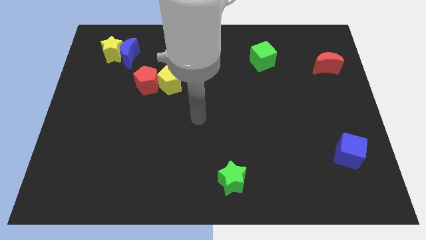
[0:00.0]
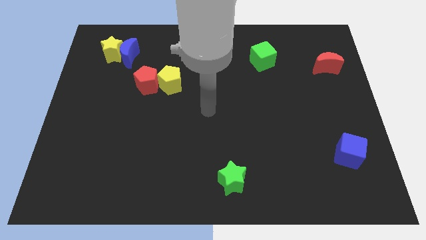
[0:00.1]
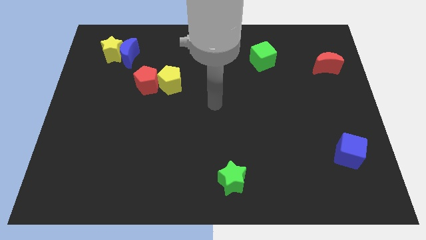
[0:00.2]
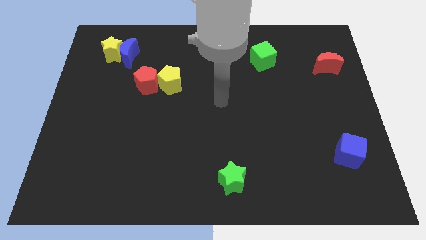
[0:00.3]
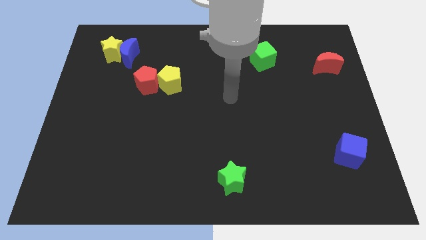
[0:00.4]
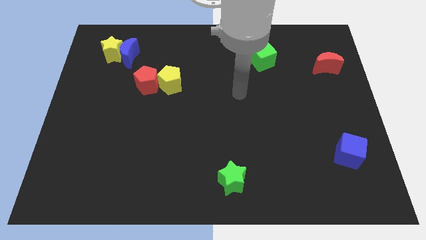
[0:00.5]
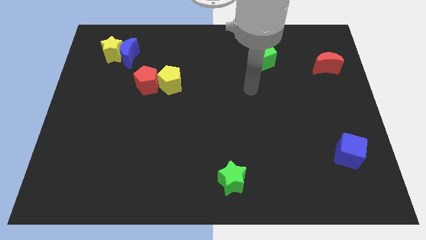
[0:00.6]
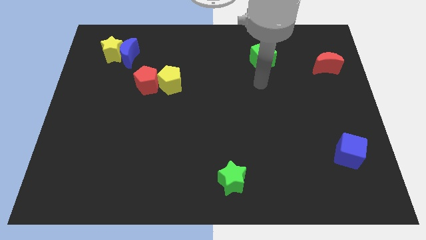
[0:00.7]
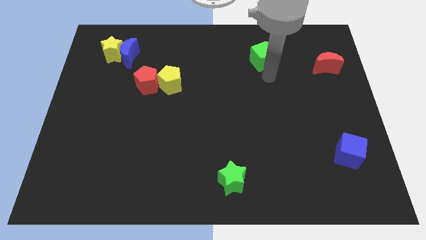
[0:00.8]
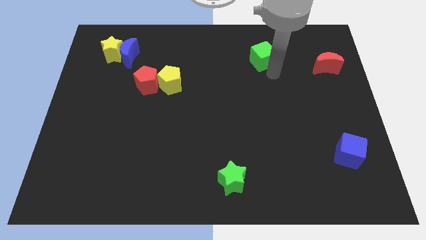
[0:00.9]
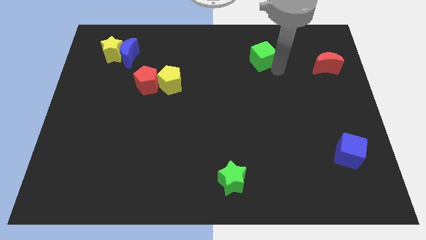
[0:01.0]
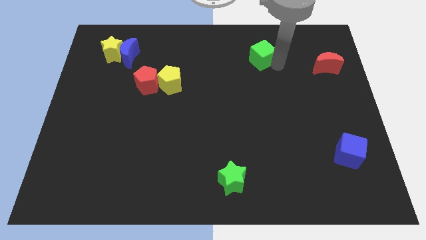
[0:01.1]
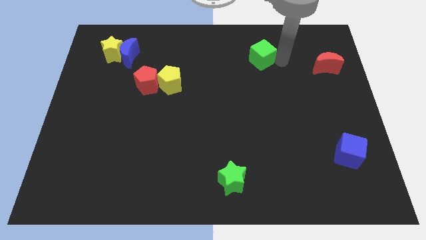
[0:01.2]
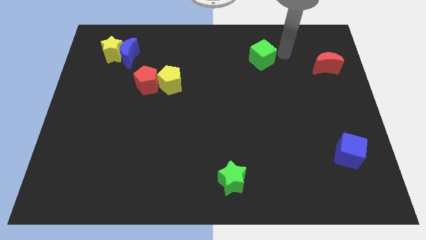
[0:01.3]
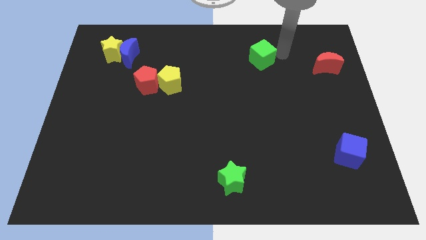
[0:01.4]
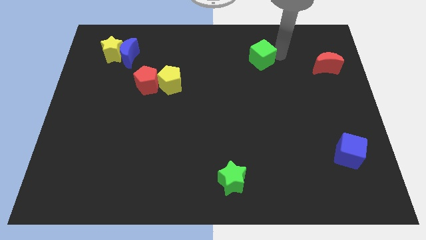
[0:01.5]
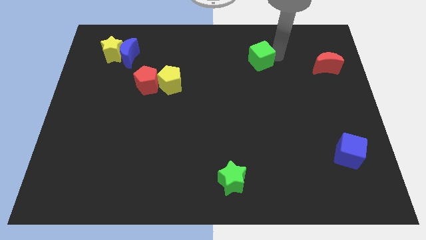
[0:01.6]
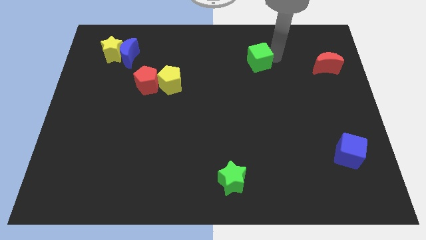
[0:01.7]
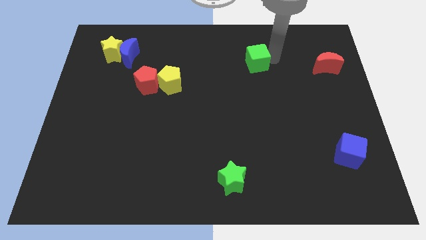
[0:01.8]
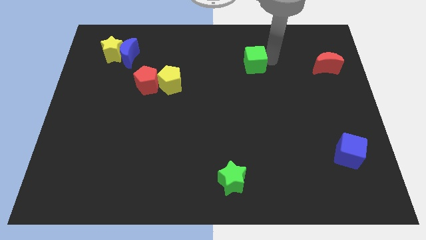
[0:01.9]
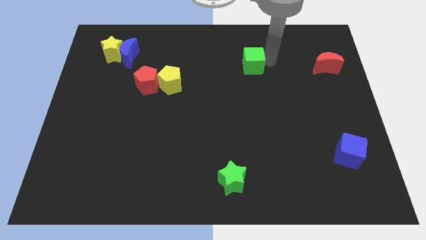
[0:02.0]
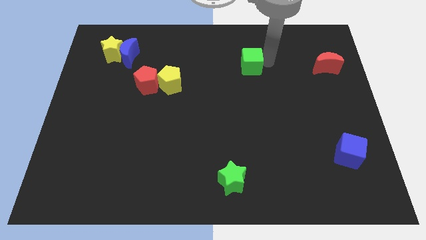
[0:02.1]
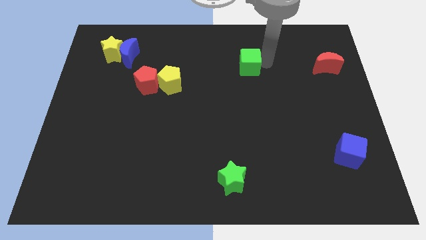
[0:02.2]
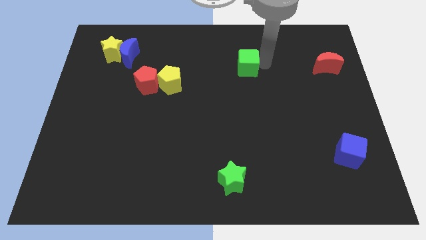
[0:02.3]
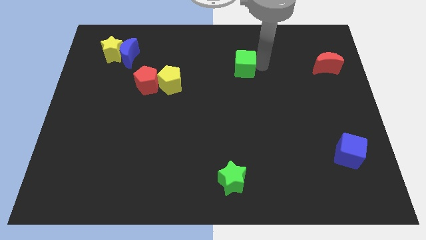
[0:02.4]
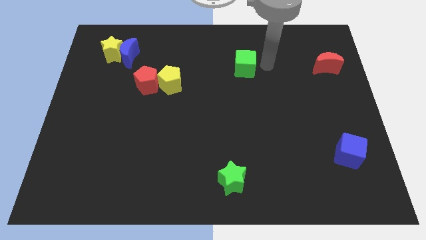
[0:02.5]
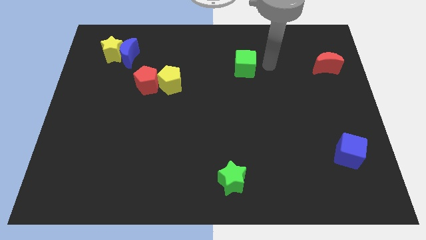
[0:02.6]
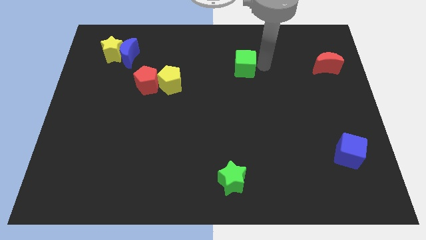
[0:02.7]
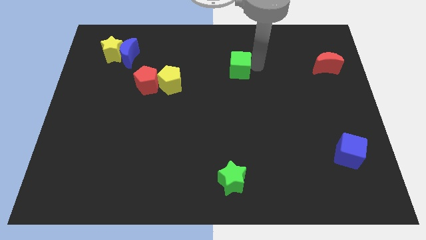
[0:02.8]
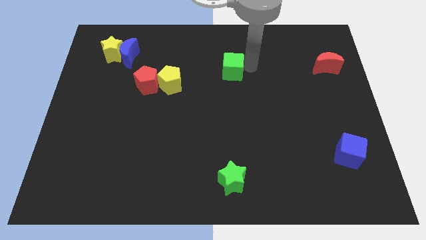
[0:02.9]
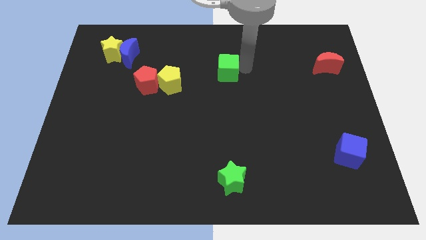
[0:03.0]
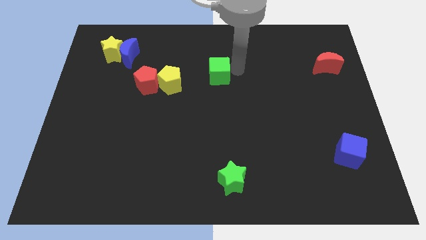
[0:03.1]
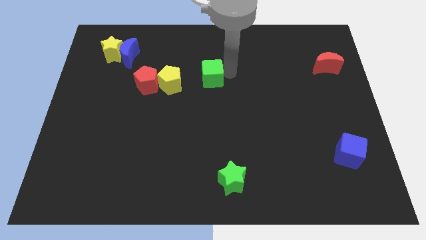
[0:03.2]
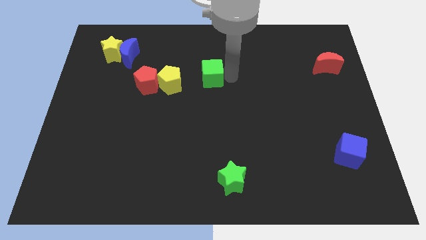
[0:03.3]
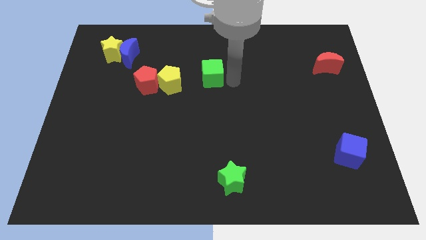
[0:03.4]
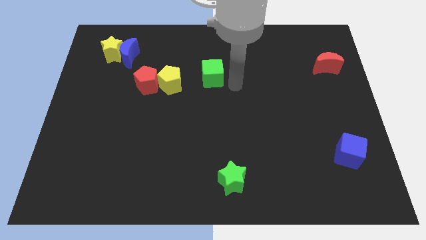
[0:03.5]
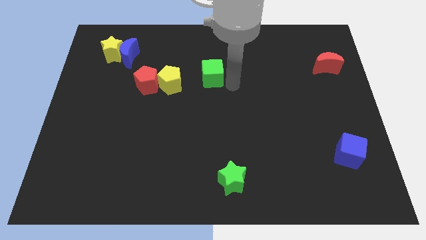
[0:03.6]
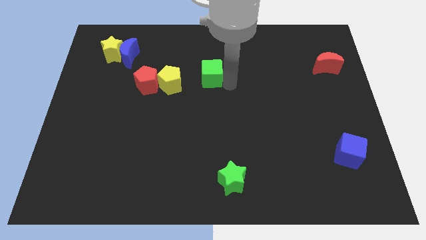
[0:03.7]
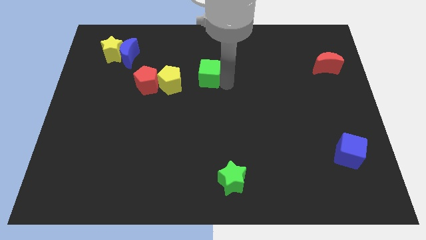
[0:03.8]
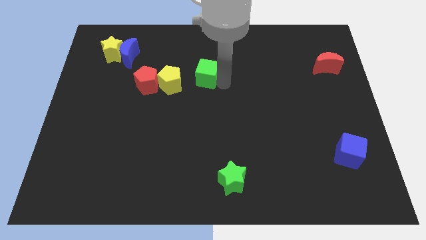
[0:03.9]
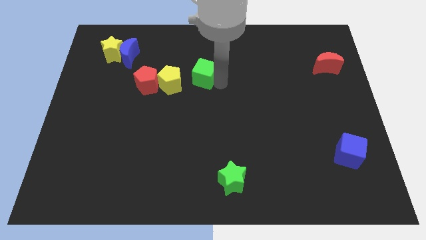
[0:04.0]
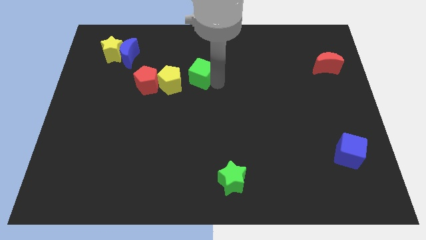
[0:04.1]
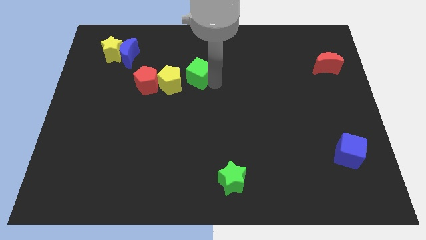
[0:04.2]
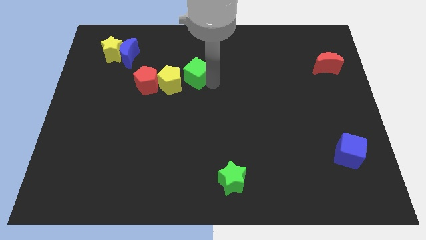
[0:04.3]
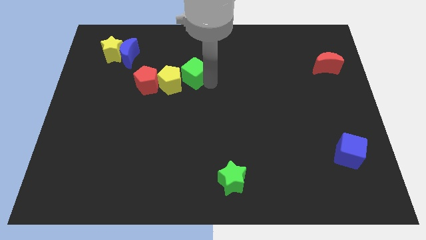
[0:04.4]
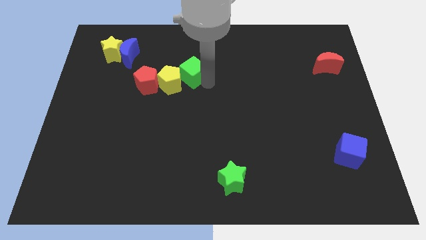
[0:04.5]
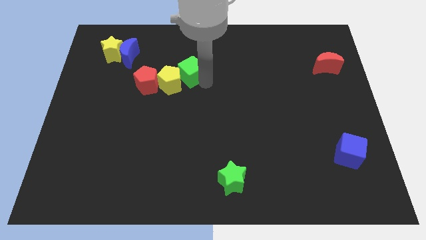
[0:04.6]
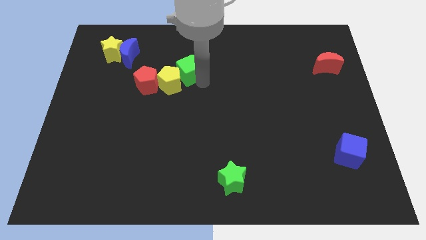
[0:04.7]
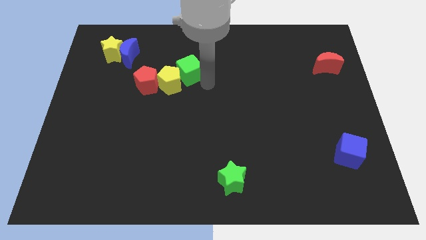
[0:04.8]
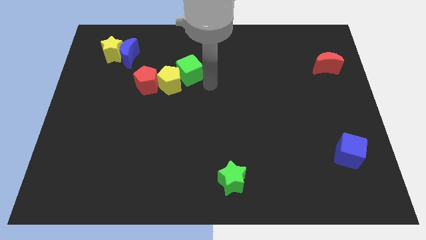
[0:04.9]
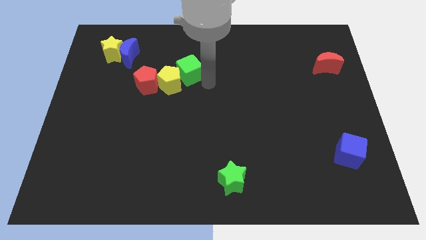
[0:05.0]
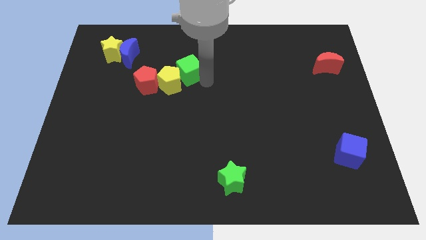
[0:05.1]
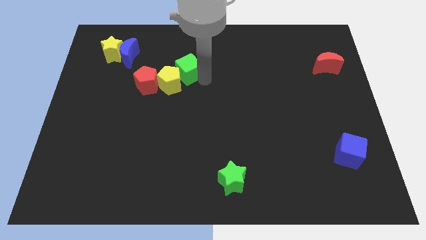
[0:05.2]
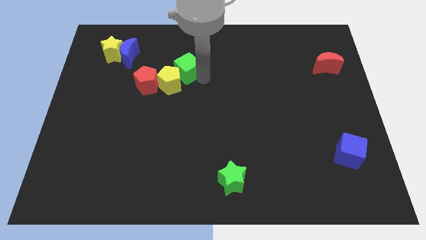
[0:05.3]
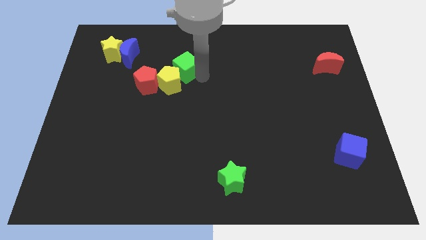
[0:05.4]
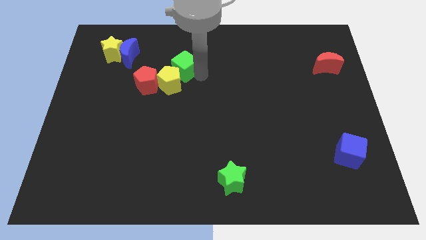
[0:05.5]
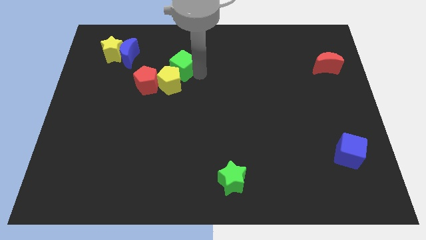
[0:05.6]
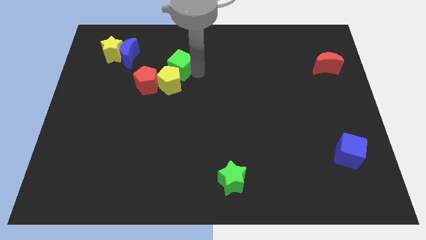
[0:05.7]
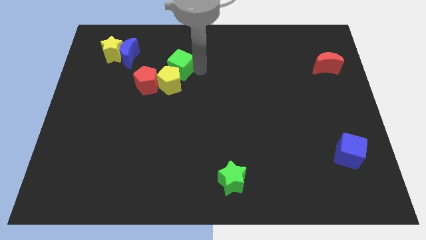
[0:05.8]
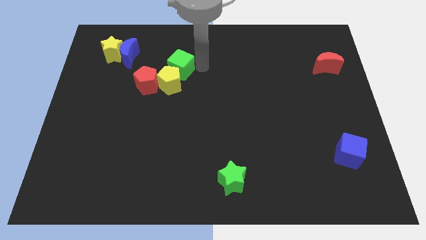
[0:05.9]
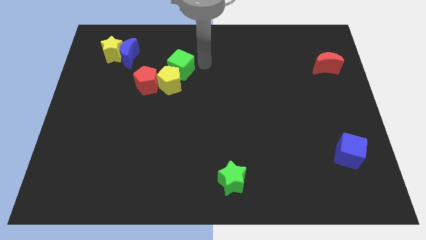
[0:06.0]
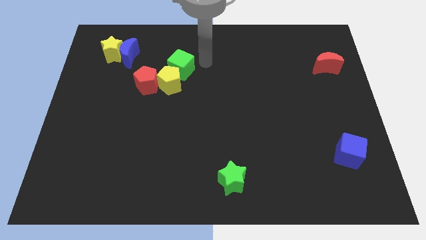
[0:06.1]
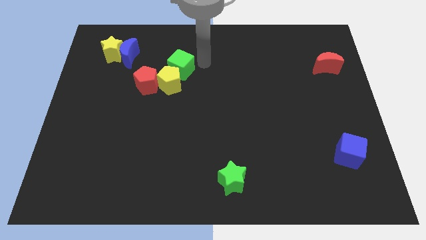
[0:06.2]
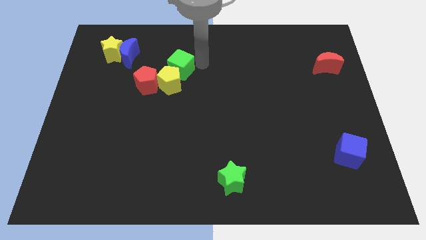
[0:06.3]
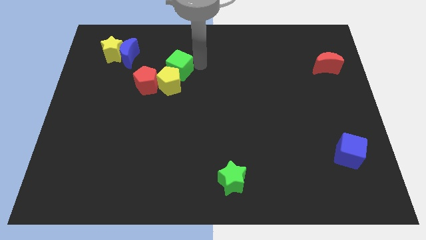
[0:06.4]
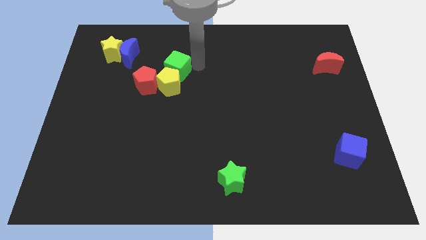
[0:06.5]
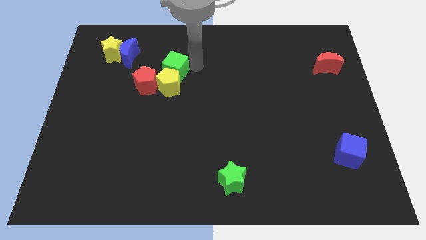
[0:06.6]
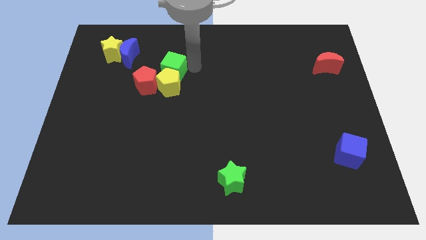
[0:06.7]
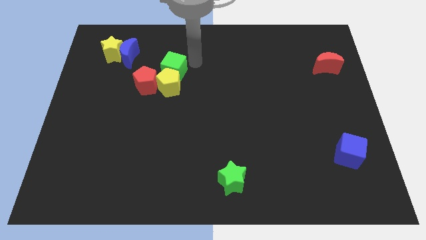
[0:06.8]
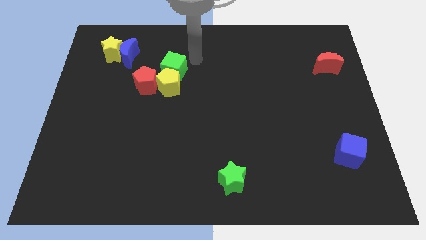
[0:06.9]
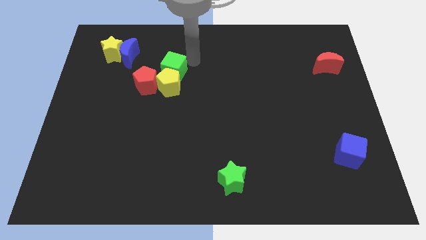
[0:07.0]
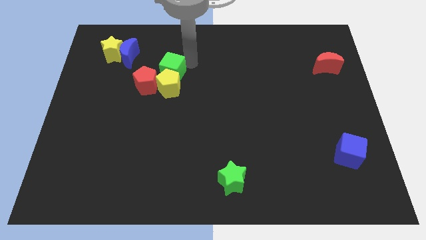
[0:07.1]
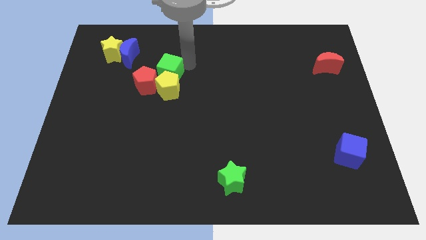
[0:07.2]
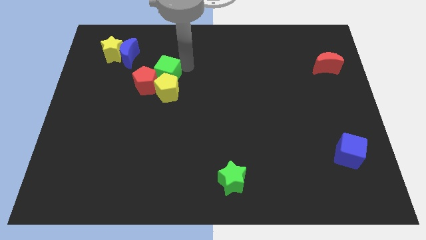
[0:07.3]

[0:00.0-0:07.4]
slide the green cube to the red pentagon

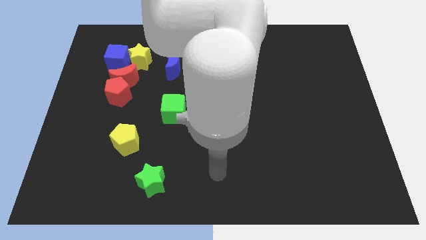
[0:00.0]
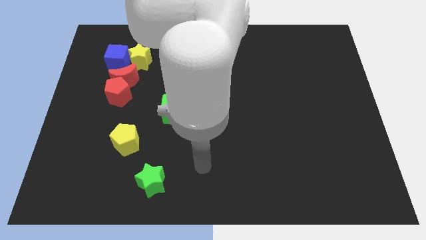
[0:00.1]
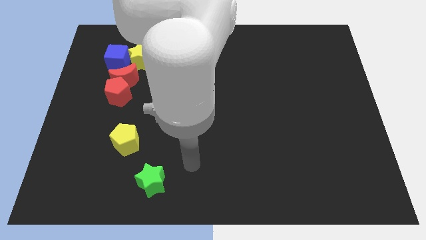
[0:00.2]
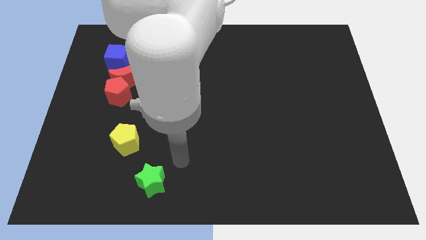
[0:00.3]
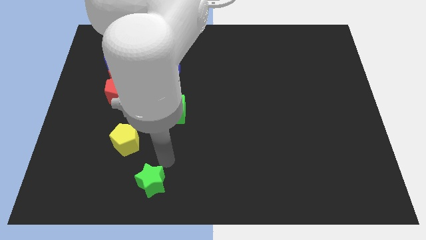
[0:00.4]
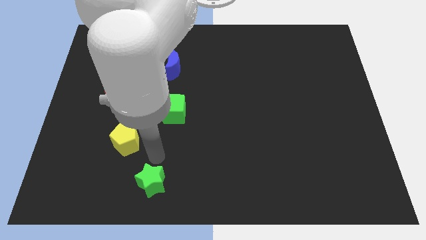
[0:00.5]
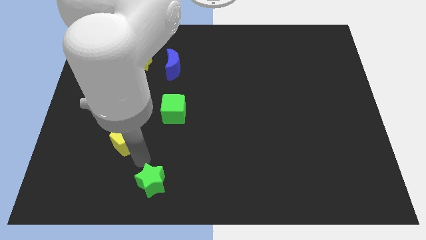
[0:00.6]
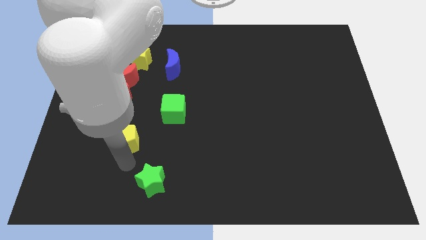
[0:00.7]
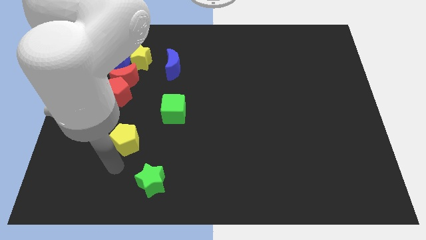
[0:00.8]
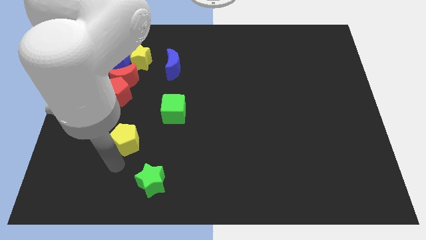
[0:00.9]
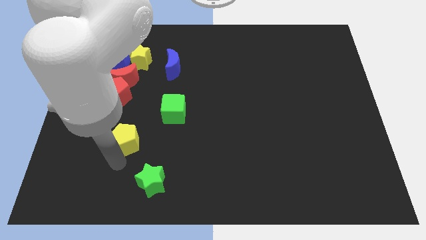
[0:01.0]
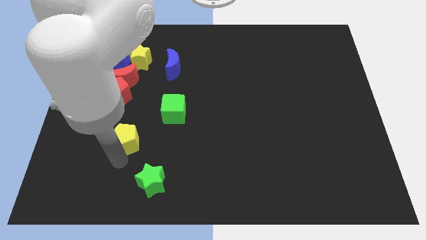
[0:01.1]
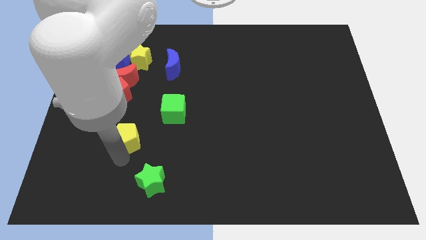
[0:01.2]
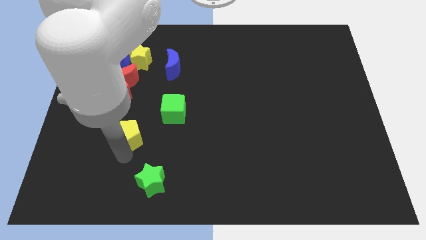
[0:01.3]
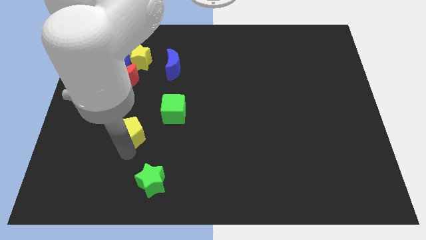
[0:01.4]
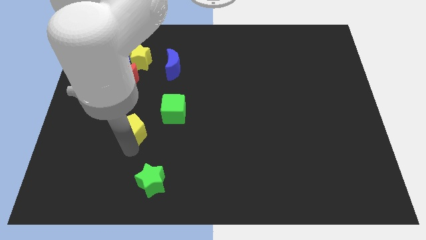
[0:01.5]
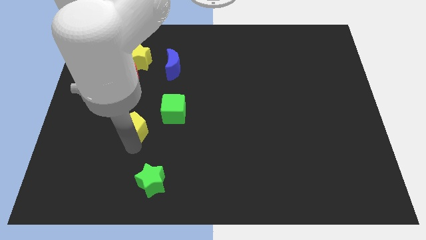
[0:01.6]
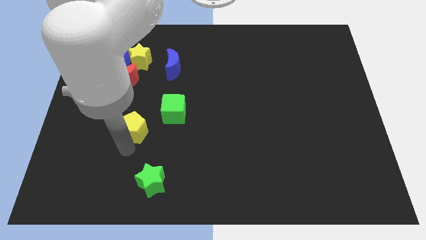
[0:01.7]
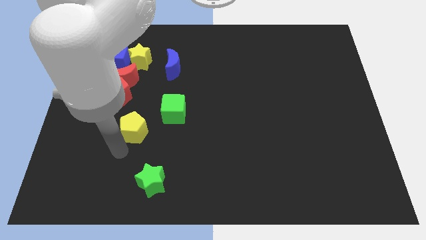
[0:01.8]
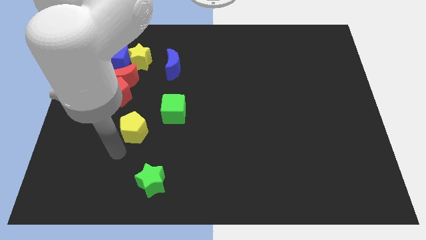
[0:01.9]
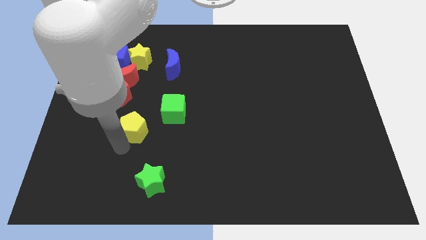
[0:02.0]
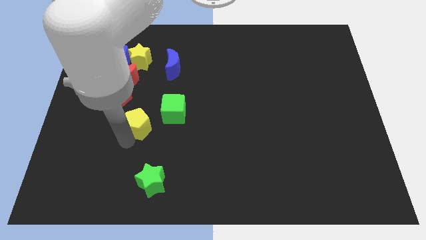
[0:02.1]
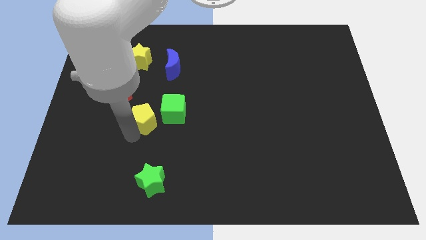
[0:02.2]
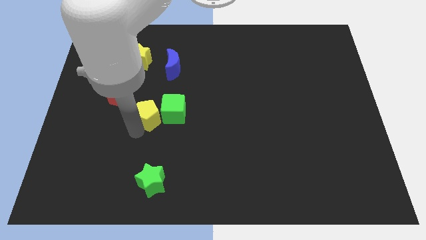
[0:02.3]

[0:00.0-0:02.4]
slide the yellow pentagon to the green cube
